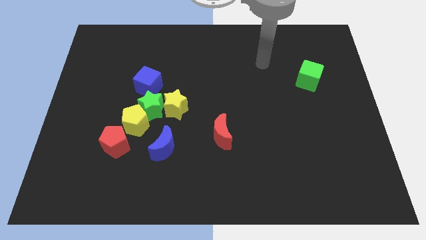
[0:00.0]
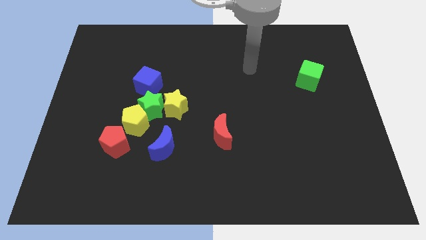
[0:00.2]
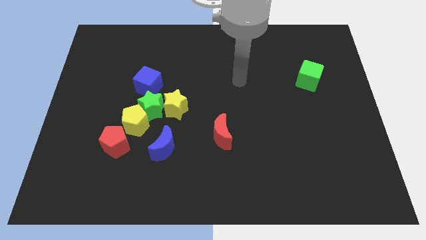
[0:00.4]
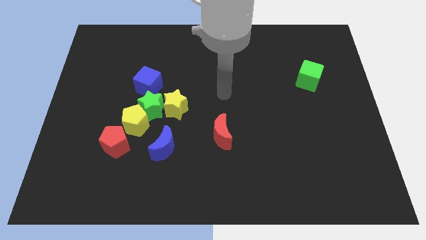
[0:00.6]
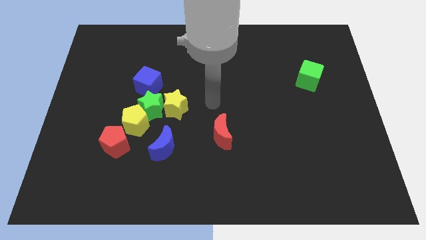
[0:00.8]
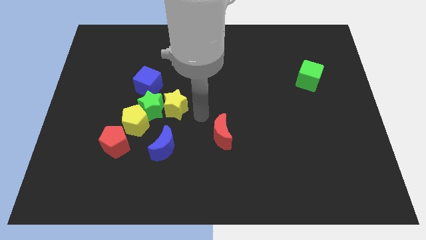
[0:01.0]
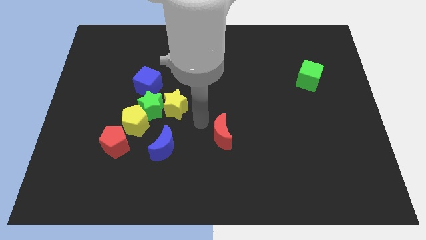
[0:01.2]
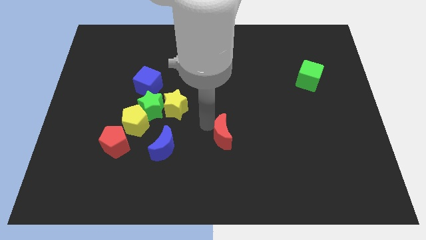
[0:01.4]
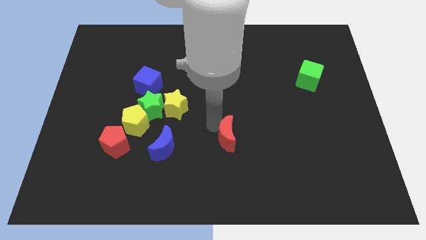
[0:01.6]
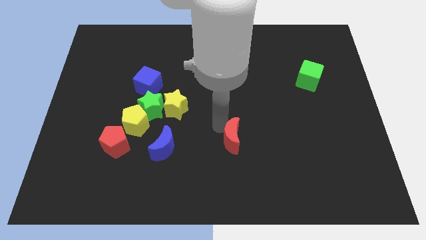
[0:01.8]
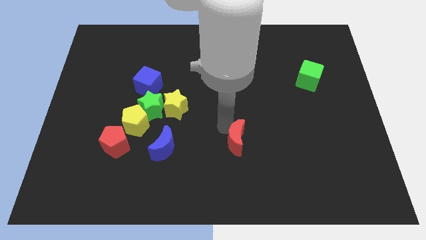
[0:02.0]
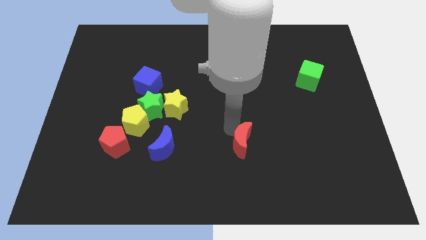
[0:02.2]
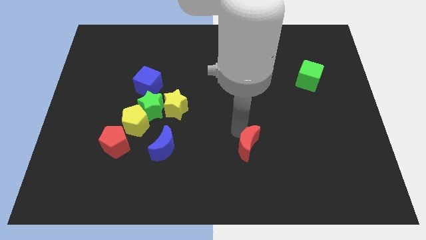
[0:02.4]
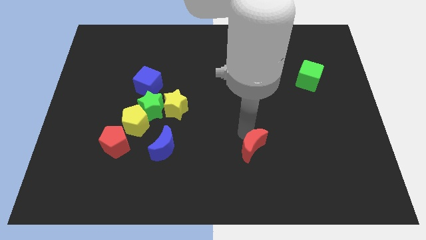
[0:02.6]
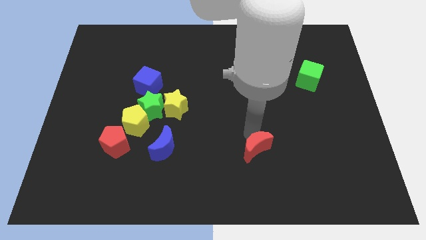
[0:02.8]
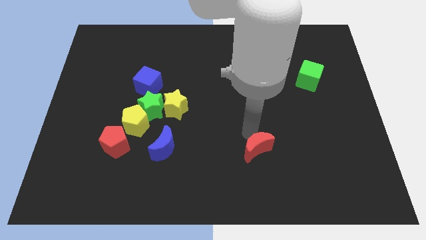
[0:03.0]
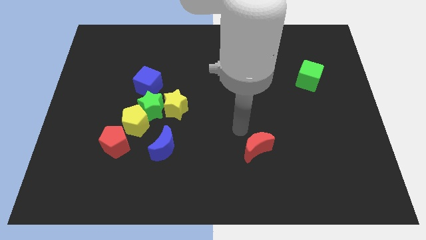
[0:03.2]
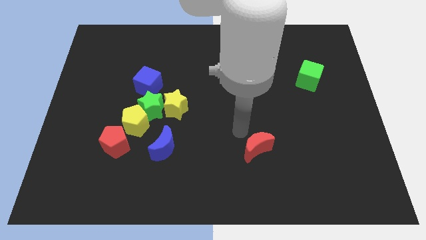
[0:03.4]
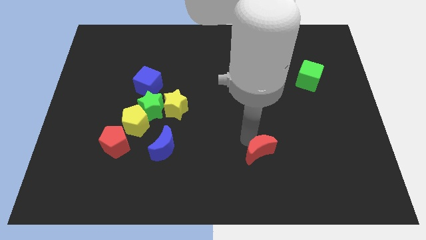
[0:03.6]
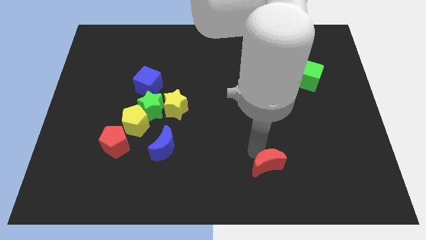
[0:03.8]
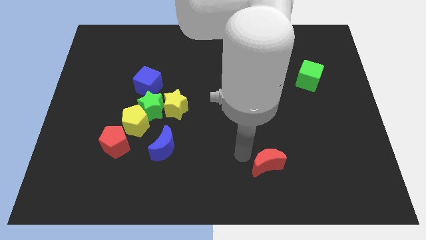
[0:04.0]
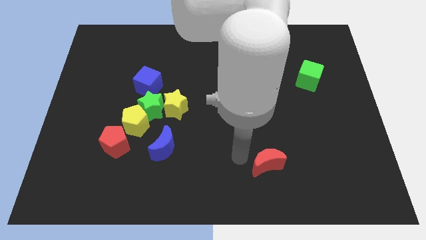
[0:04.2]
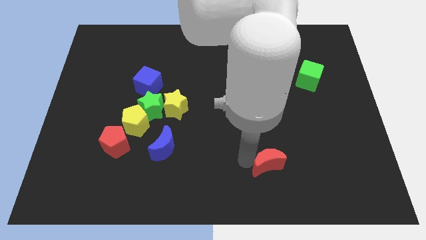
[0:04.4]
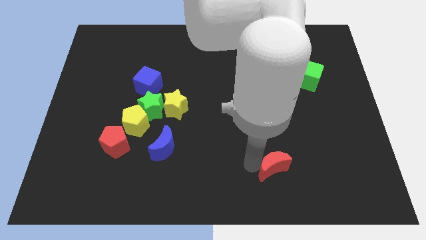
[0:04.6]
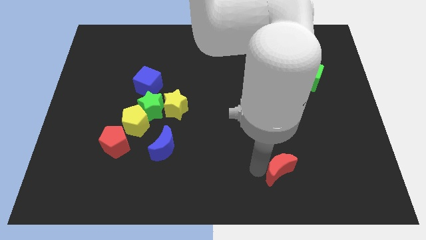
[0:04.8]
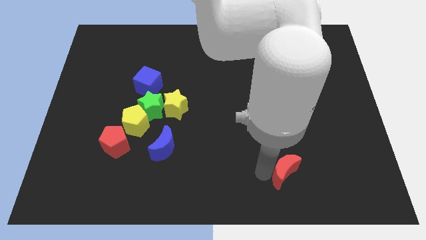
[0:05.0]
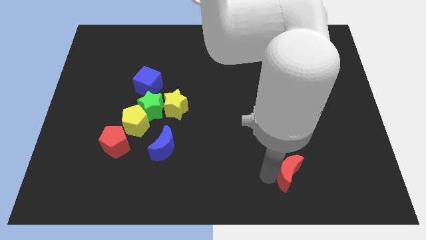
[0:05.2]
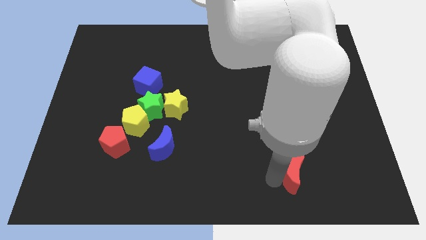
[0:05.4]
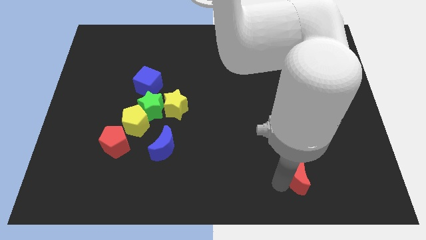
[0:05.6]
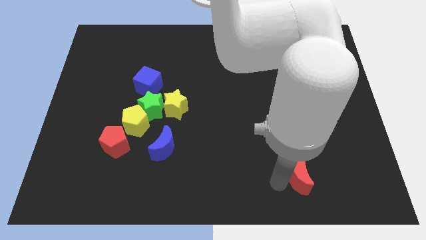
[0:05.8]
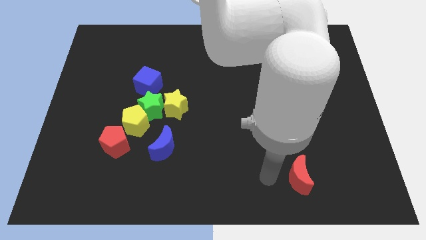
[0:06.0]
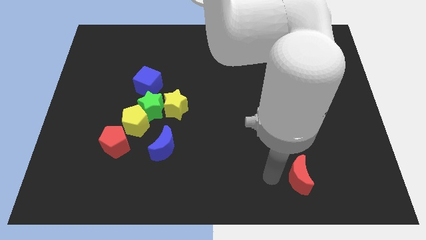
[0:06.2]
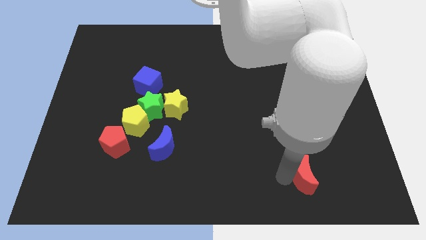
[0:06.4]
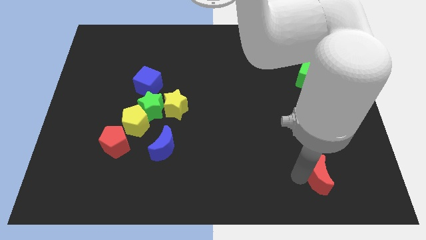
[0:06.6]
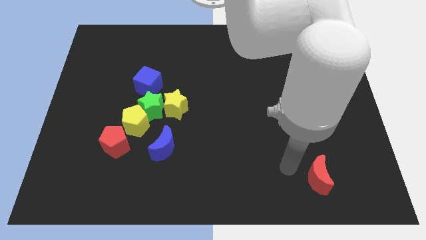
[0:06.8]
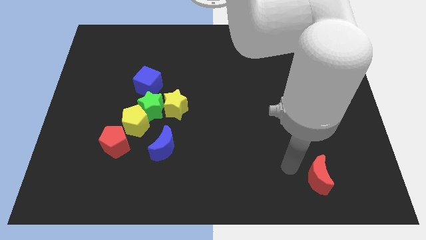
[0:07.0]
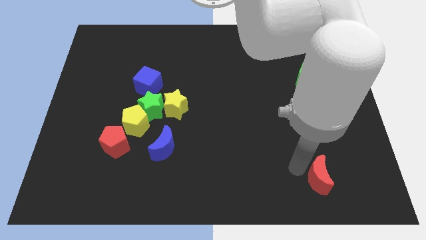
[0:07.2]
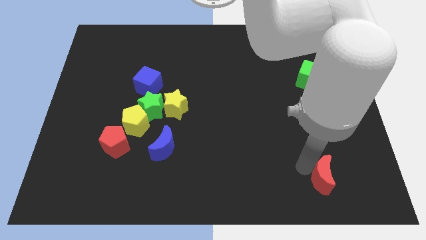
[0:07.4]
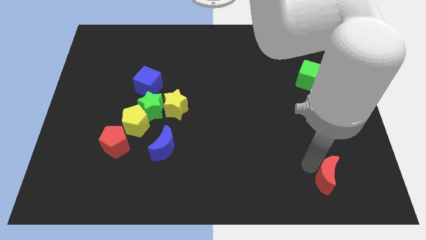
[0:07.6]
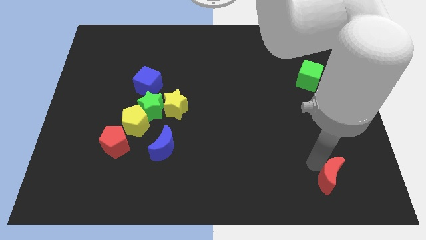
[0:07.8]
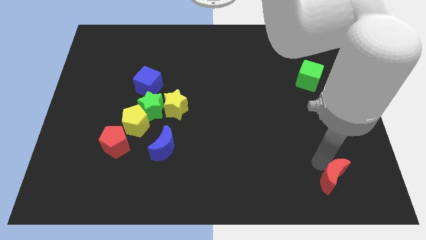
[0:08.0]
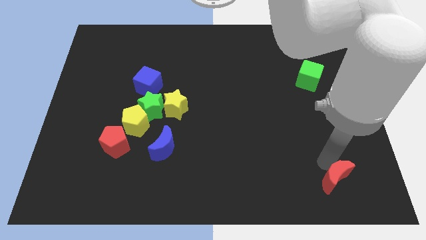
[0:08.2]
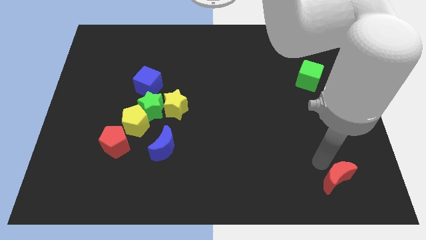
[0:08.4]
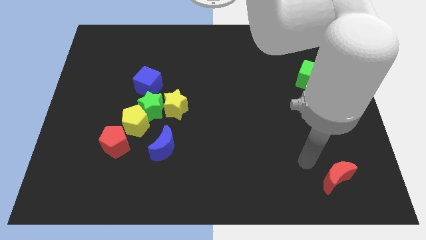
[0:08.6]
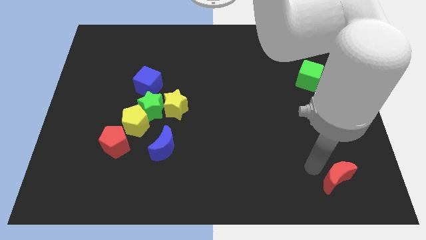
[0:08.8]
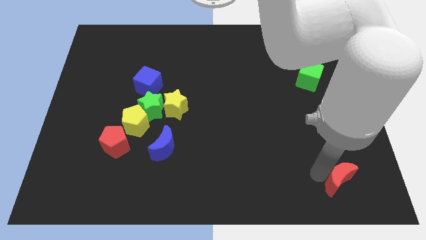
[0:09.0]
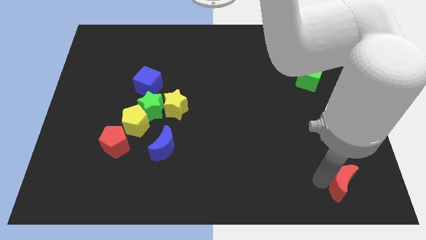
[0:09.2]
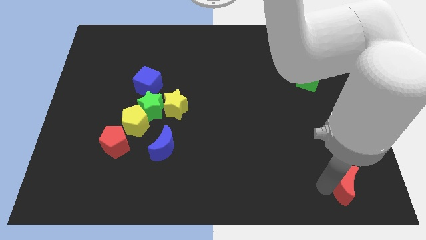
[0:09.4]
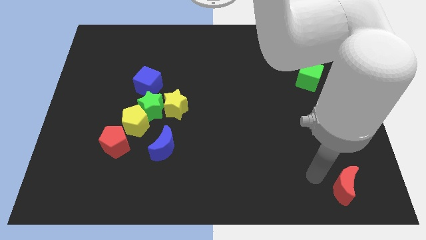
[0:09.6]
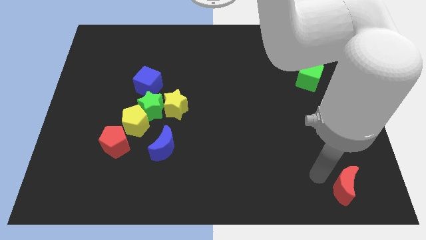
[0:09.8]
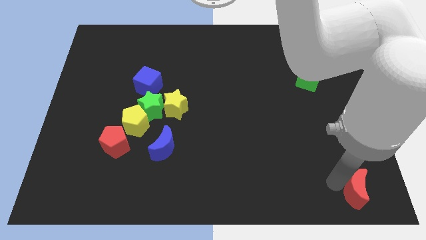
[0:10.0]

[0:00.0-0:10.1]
slide the red moon to the lower right corner

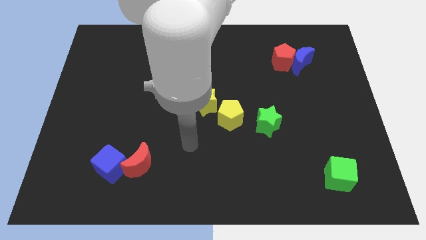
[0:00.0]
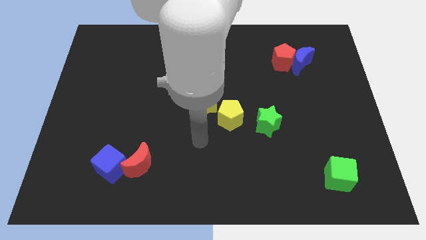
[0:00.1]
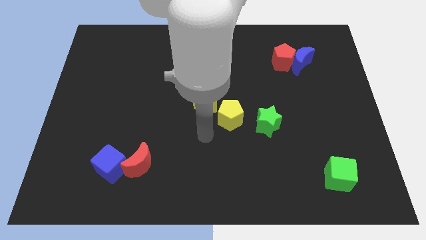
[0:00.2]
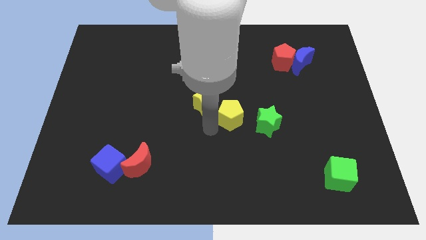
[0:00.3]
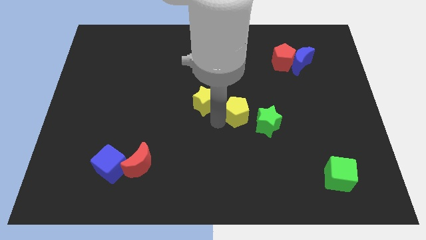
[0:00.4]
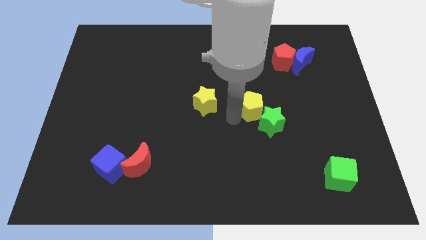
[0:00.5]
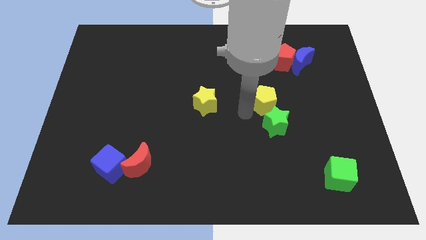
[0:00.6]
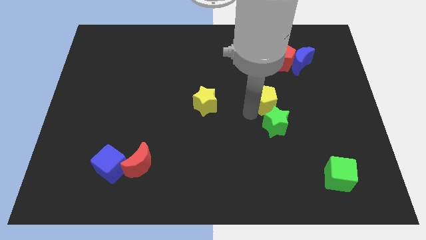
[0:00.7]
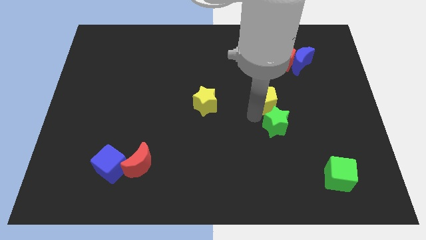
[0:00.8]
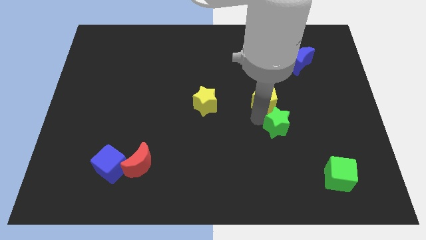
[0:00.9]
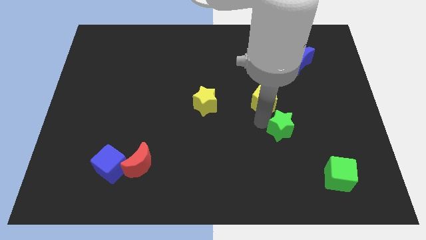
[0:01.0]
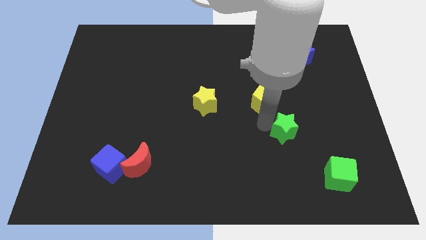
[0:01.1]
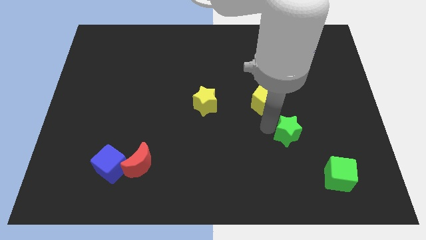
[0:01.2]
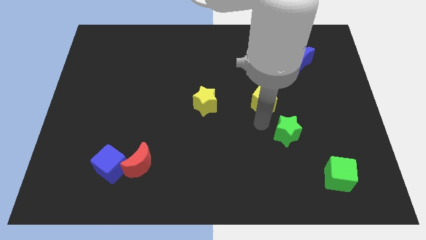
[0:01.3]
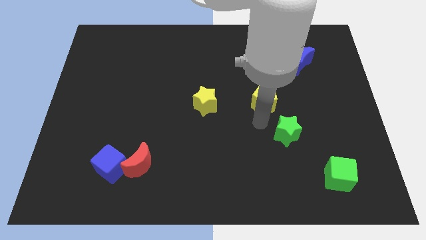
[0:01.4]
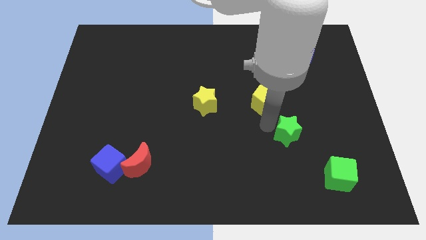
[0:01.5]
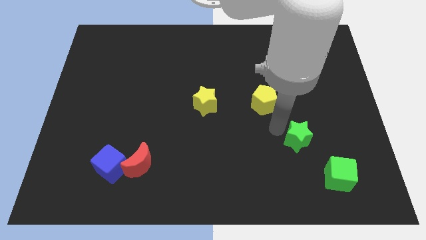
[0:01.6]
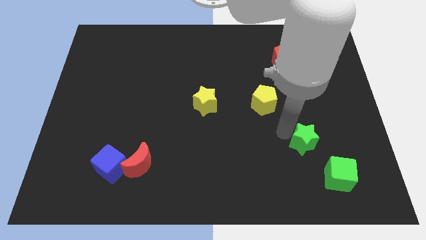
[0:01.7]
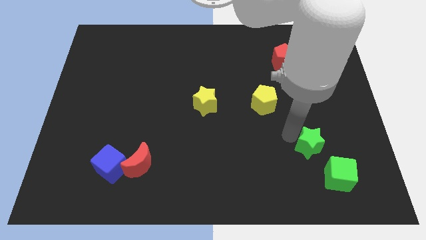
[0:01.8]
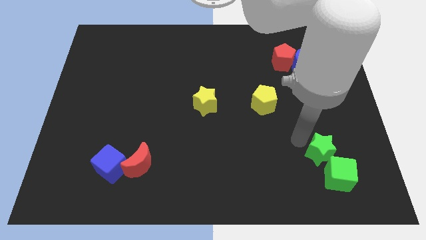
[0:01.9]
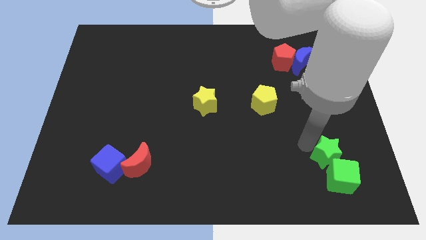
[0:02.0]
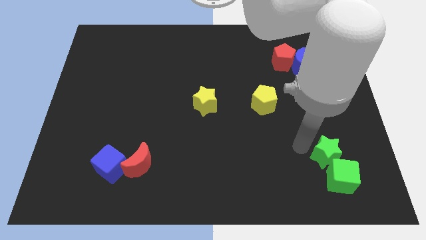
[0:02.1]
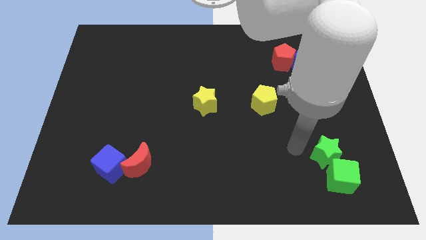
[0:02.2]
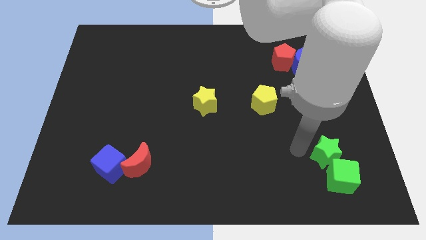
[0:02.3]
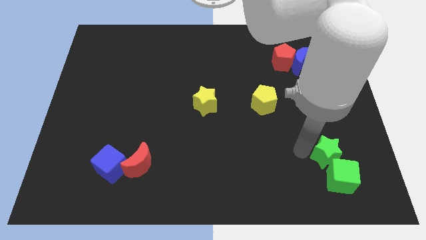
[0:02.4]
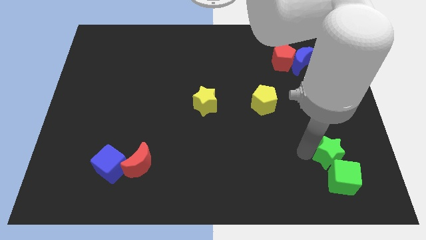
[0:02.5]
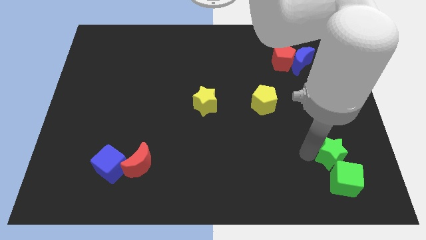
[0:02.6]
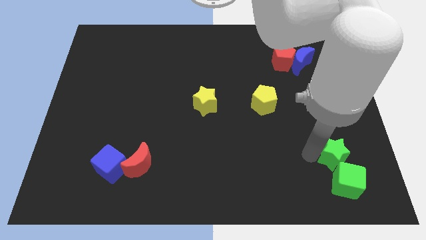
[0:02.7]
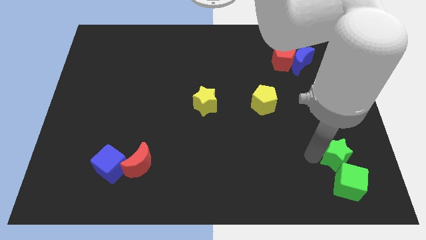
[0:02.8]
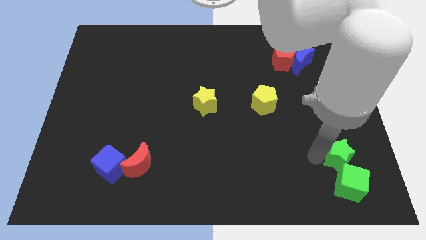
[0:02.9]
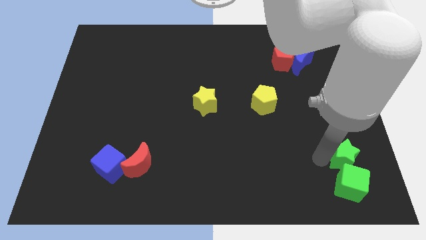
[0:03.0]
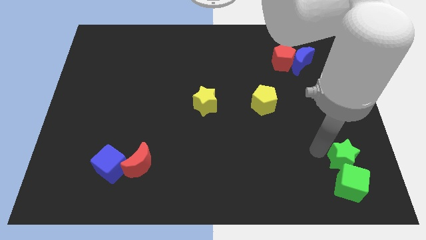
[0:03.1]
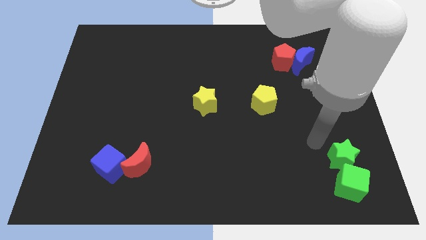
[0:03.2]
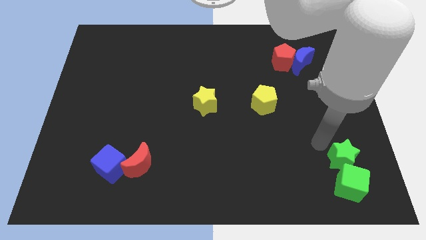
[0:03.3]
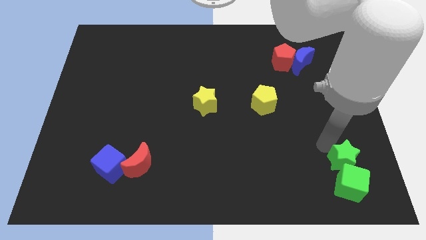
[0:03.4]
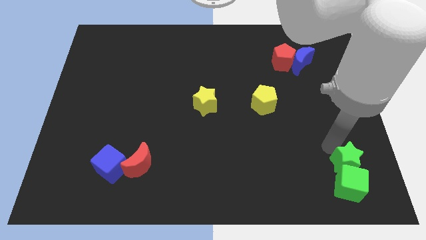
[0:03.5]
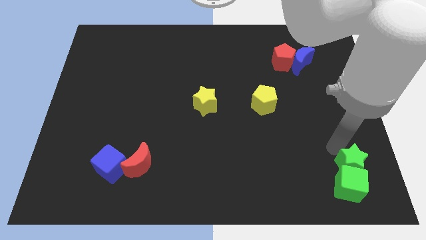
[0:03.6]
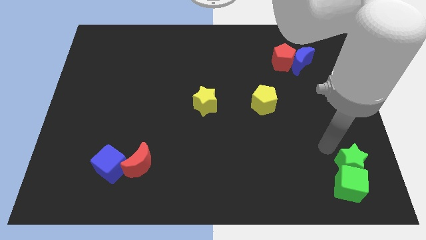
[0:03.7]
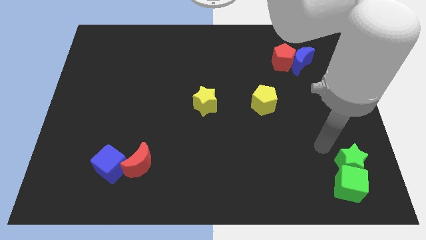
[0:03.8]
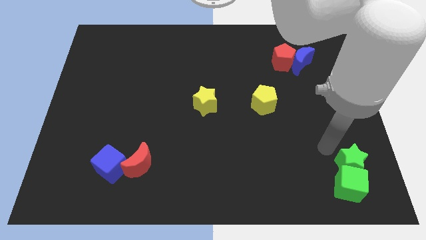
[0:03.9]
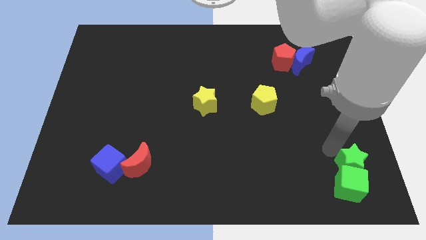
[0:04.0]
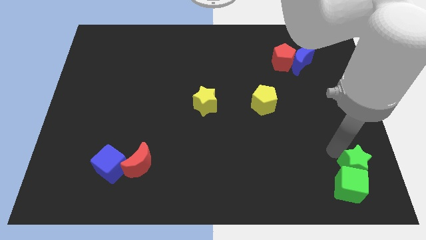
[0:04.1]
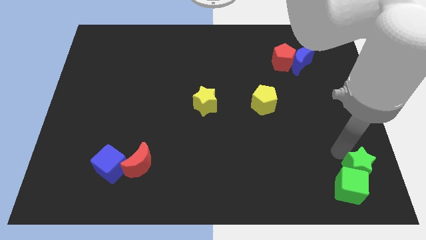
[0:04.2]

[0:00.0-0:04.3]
put the green star to the bottom right
